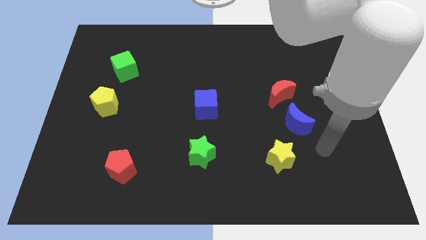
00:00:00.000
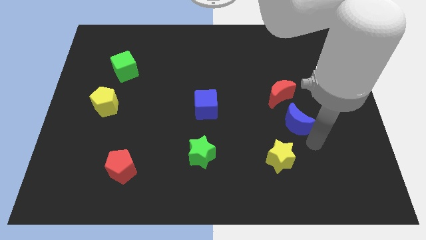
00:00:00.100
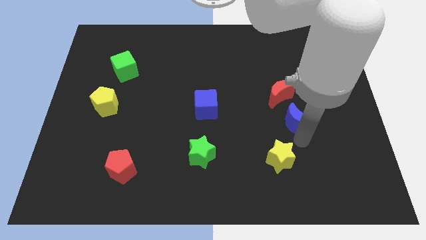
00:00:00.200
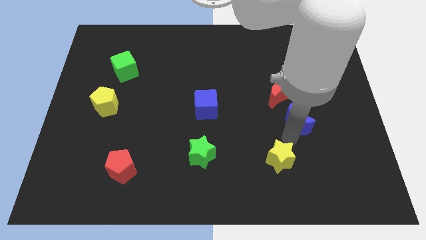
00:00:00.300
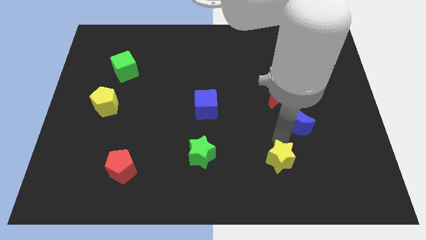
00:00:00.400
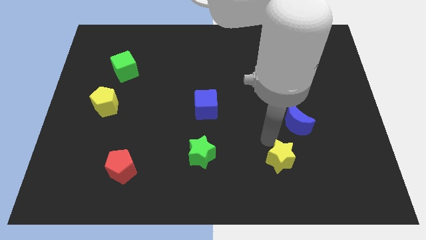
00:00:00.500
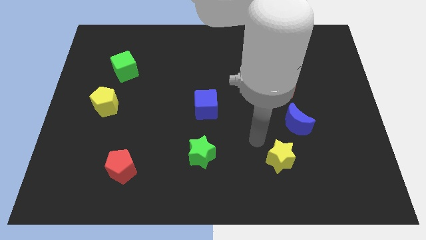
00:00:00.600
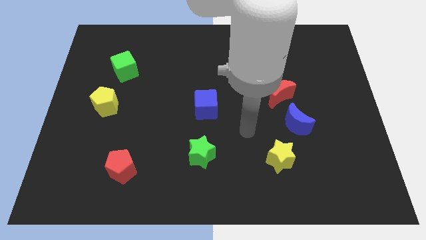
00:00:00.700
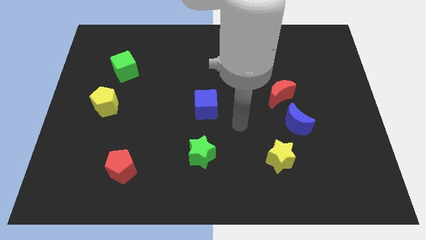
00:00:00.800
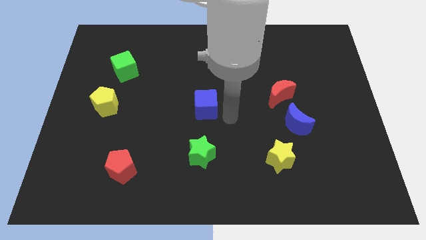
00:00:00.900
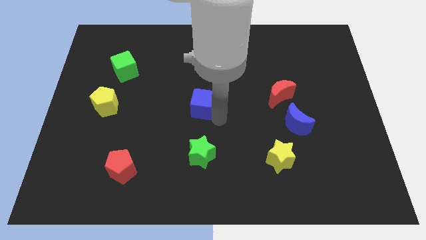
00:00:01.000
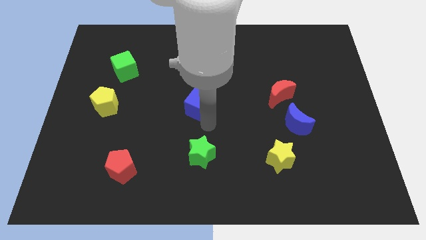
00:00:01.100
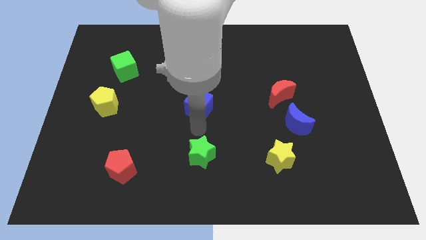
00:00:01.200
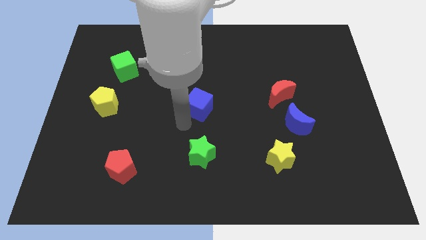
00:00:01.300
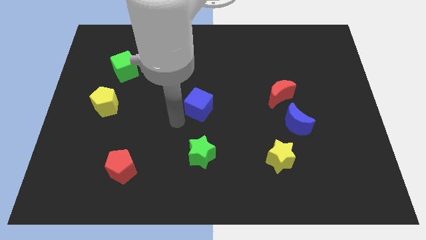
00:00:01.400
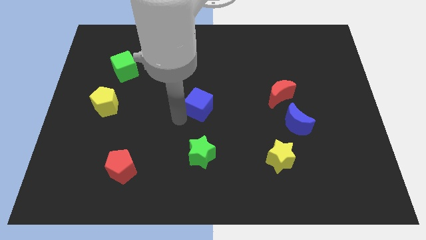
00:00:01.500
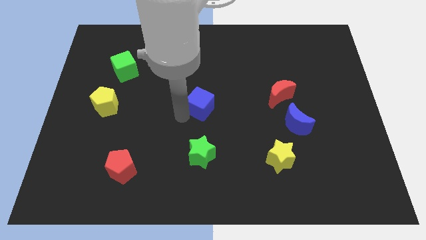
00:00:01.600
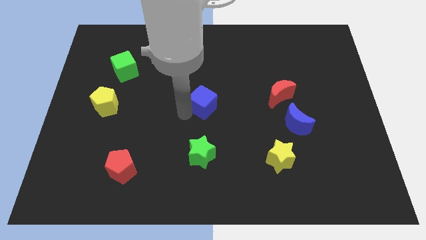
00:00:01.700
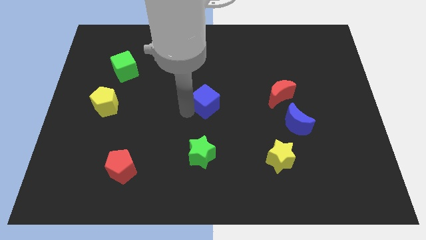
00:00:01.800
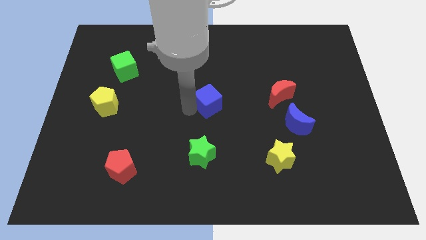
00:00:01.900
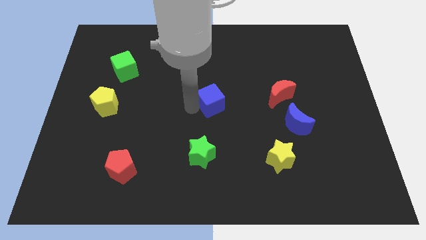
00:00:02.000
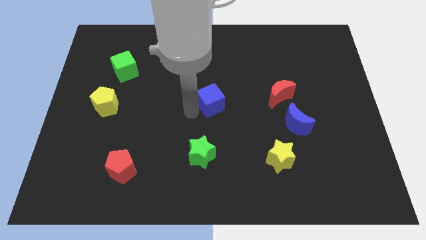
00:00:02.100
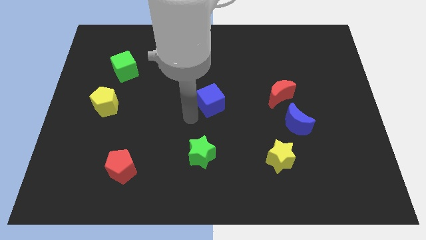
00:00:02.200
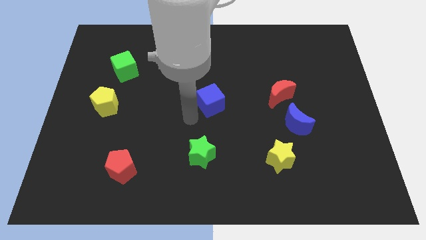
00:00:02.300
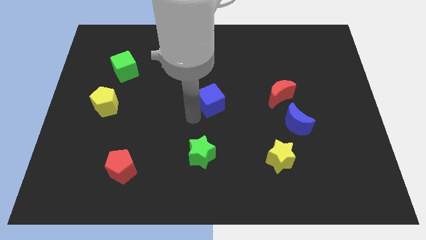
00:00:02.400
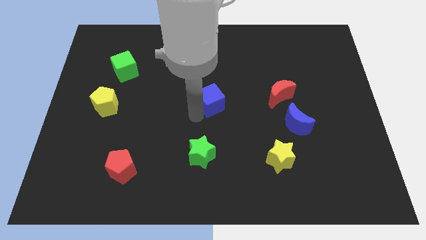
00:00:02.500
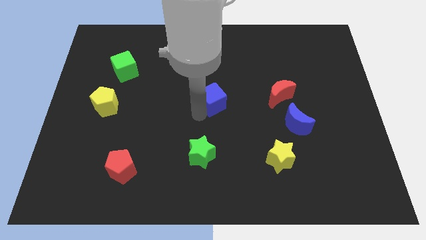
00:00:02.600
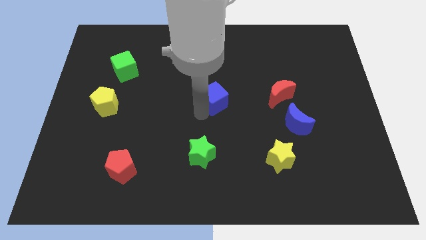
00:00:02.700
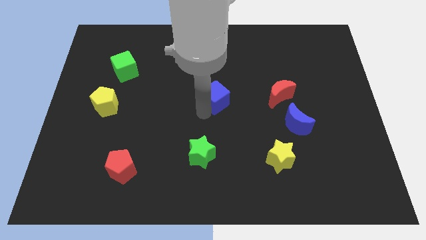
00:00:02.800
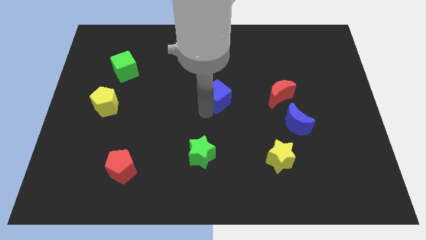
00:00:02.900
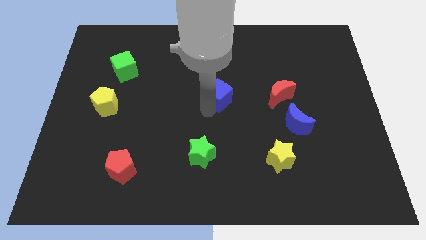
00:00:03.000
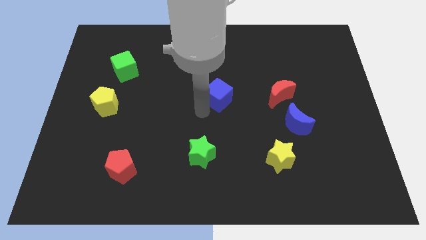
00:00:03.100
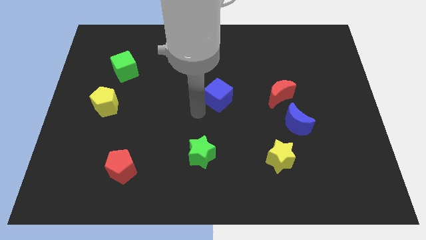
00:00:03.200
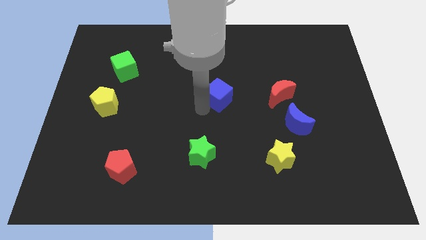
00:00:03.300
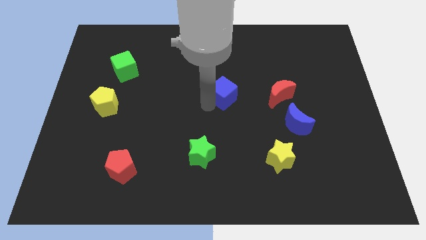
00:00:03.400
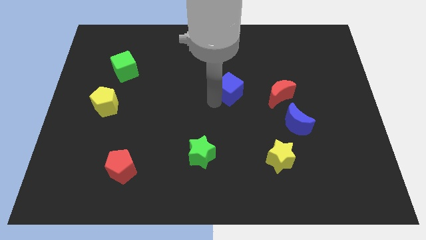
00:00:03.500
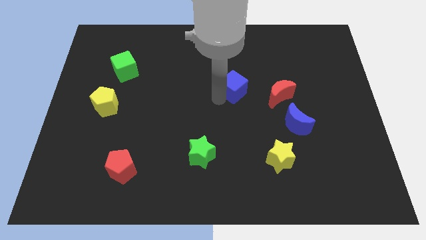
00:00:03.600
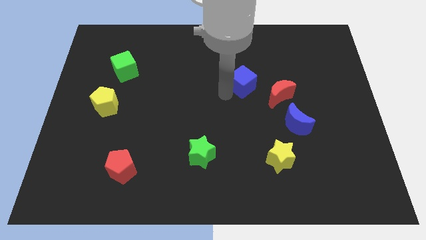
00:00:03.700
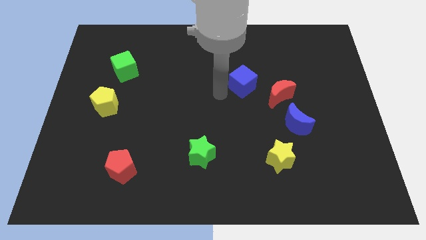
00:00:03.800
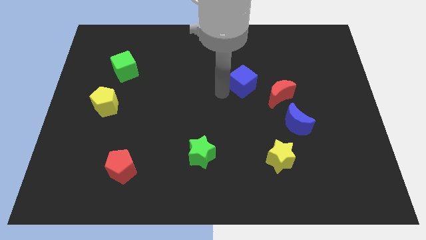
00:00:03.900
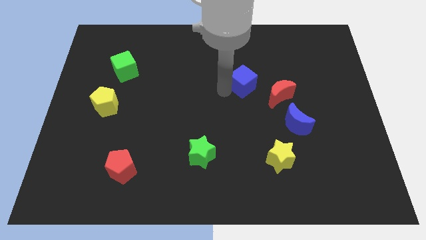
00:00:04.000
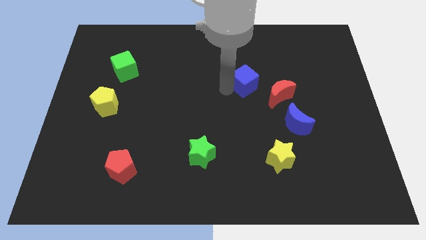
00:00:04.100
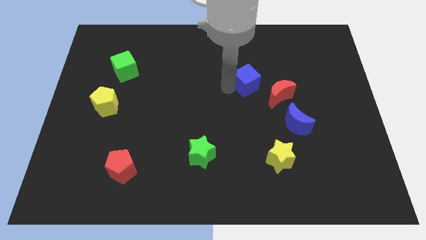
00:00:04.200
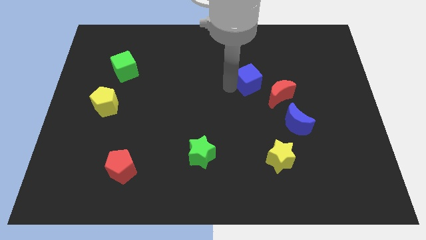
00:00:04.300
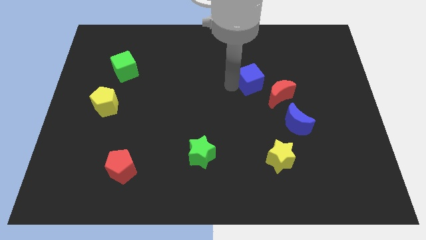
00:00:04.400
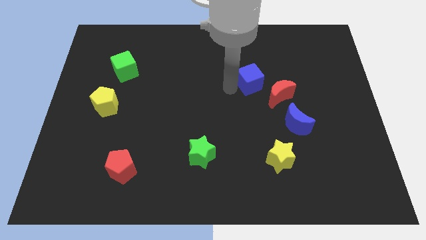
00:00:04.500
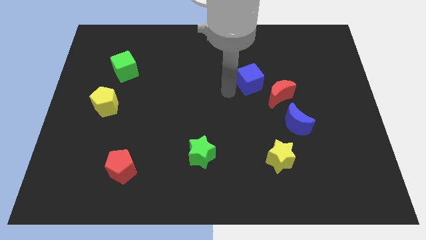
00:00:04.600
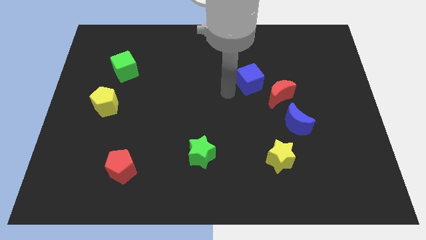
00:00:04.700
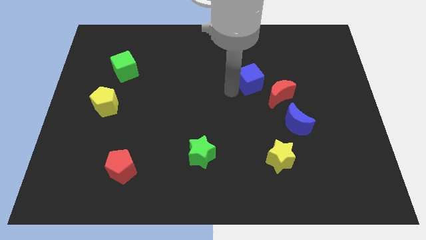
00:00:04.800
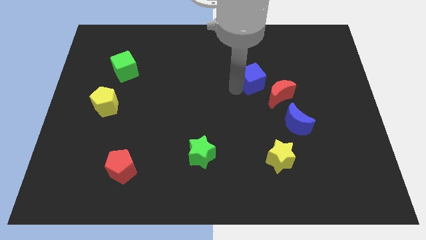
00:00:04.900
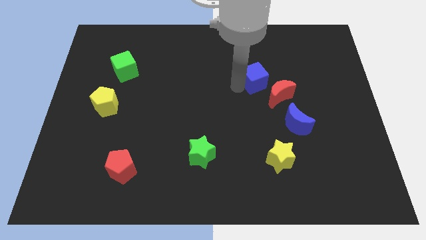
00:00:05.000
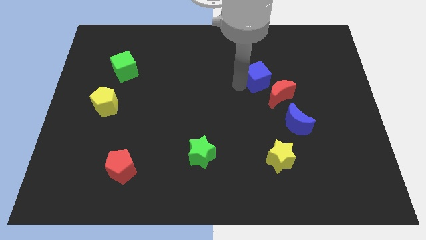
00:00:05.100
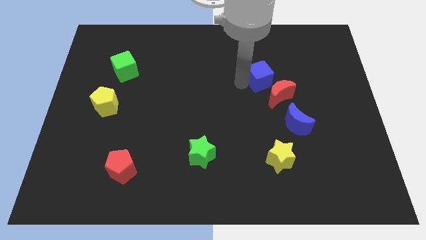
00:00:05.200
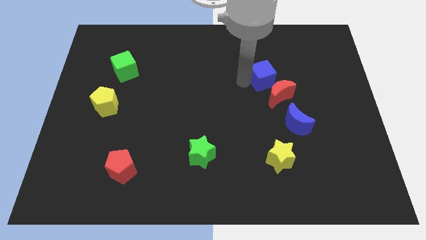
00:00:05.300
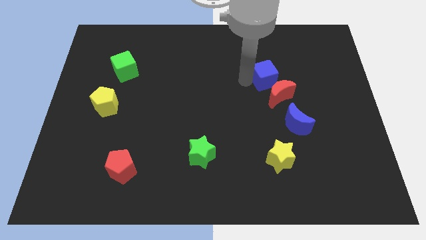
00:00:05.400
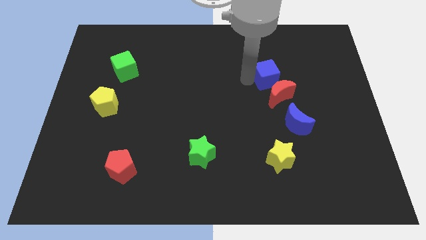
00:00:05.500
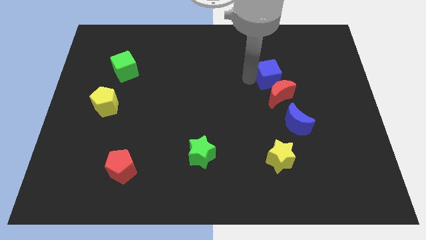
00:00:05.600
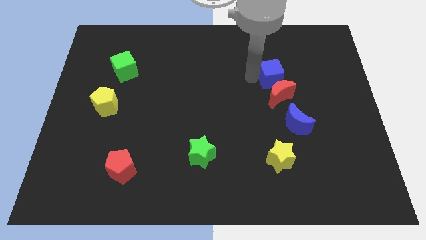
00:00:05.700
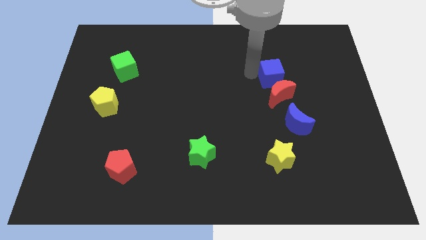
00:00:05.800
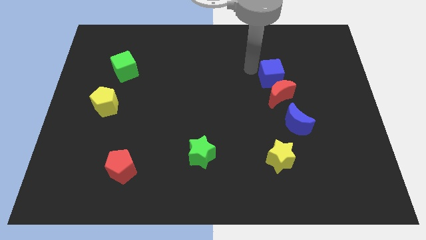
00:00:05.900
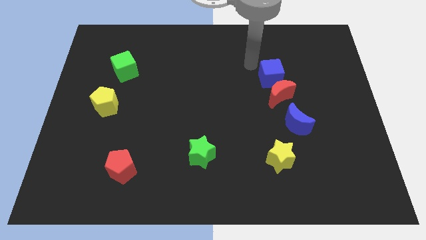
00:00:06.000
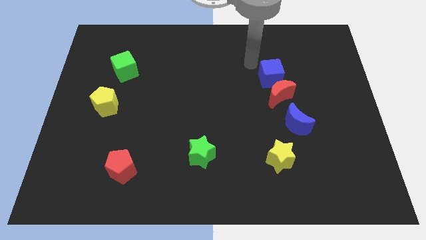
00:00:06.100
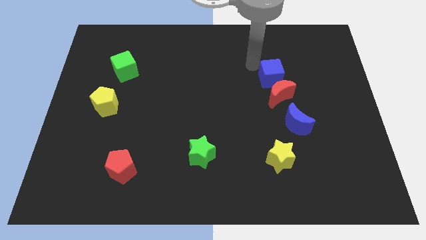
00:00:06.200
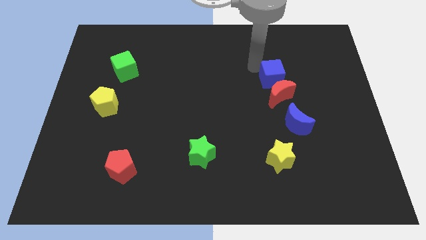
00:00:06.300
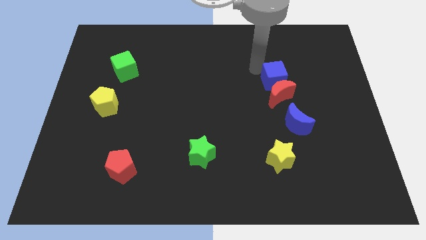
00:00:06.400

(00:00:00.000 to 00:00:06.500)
move the blue cube above the blue moon

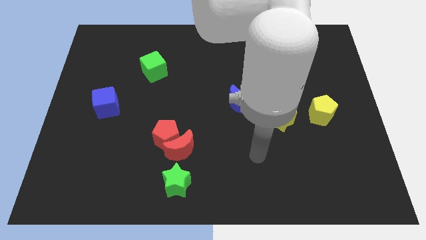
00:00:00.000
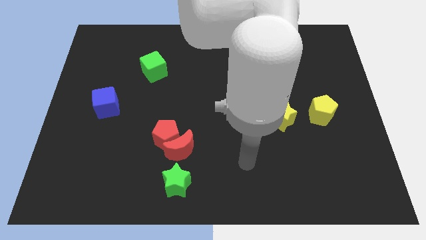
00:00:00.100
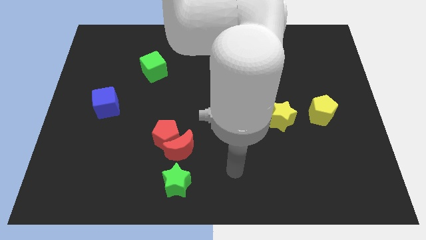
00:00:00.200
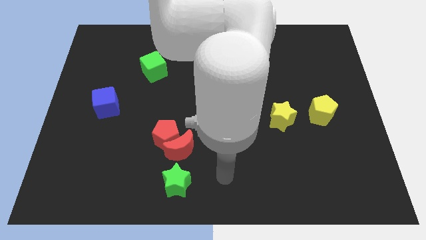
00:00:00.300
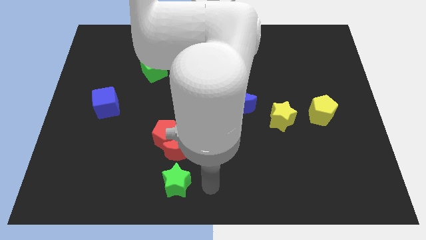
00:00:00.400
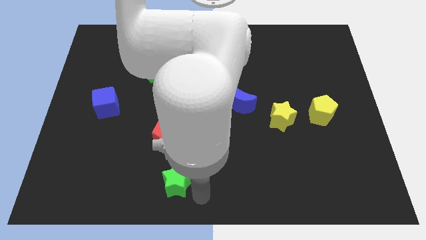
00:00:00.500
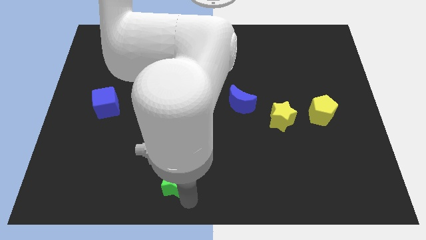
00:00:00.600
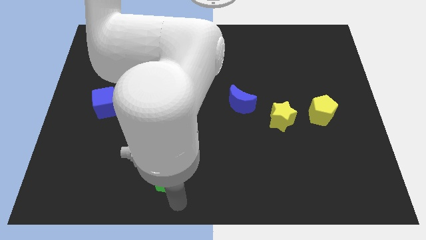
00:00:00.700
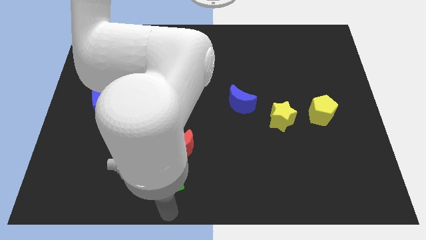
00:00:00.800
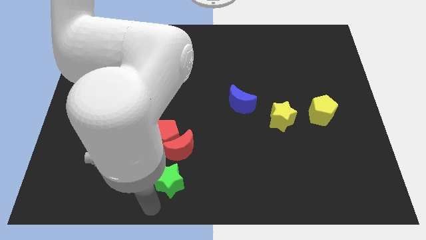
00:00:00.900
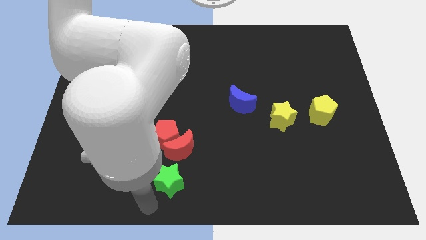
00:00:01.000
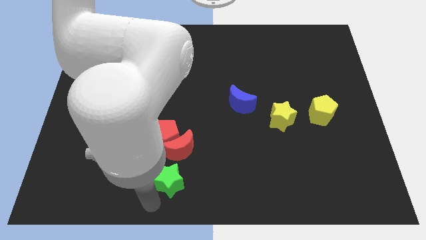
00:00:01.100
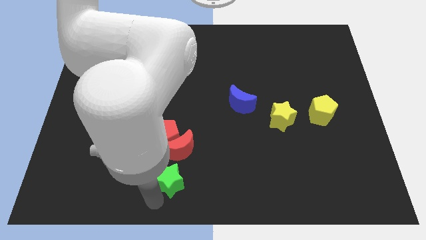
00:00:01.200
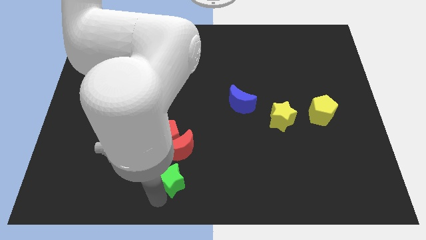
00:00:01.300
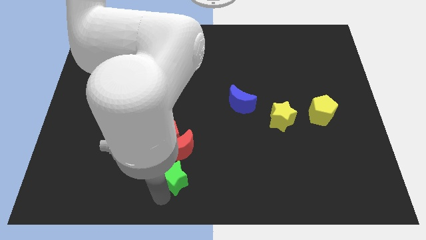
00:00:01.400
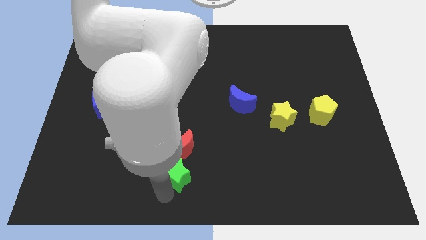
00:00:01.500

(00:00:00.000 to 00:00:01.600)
put the green star to the bottom right of the red pentagon

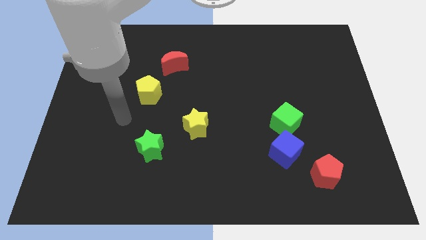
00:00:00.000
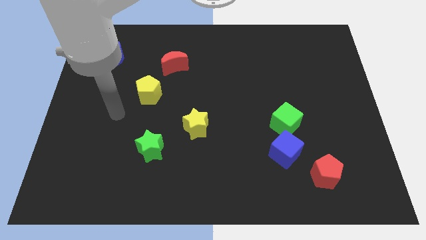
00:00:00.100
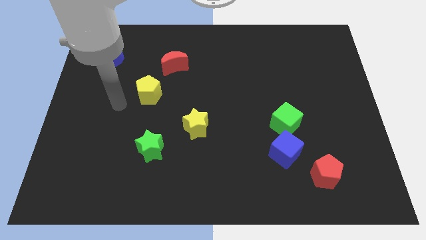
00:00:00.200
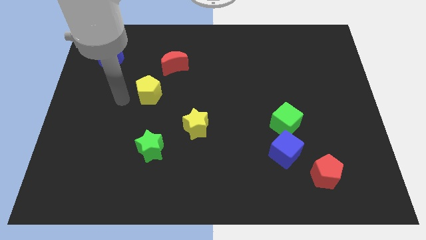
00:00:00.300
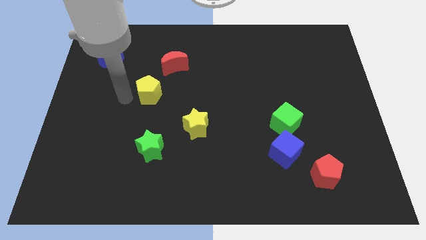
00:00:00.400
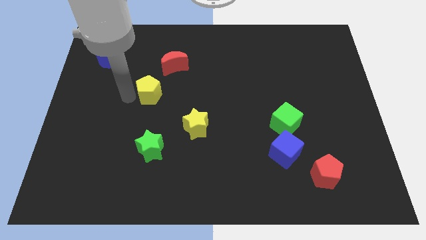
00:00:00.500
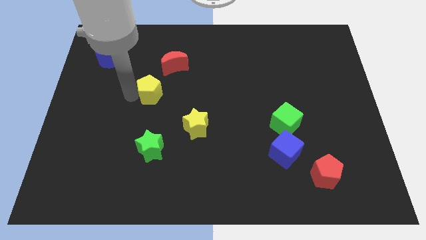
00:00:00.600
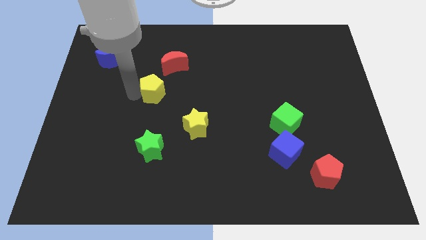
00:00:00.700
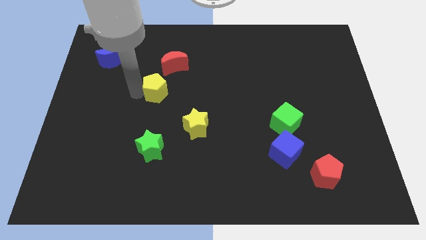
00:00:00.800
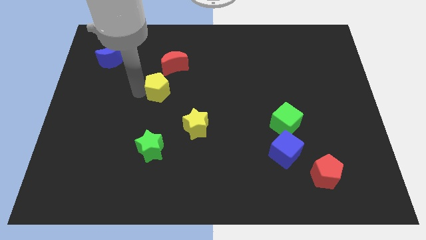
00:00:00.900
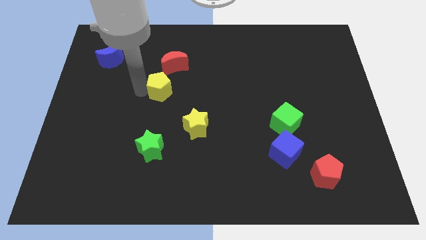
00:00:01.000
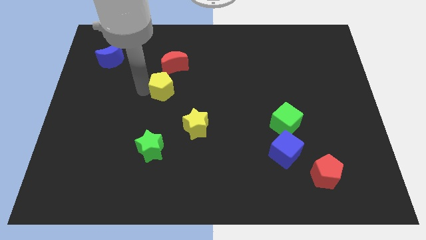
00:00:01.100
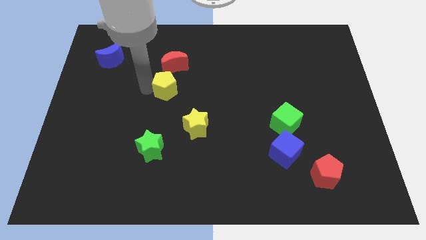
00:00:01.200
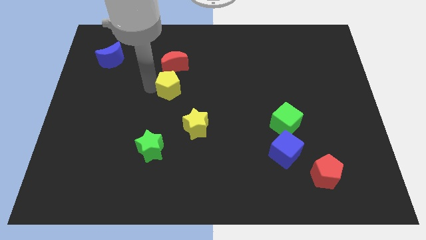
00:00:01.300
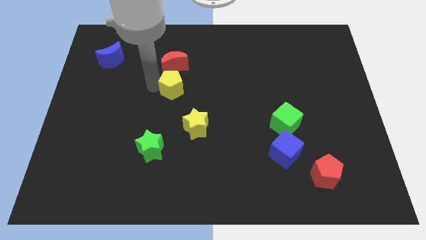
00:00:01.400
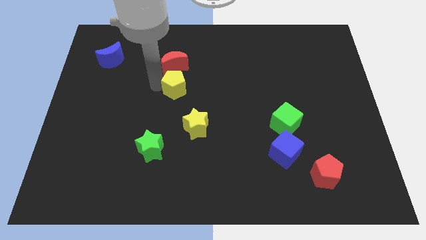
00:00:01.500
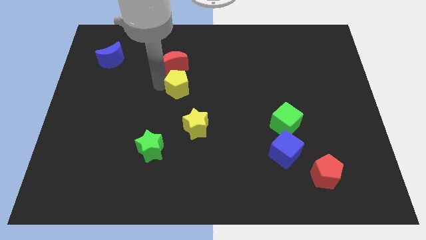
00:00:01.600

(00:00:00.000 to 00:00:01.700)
push the yellow pentagon to the top of the yellow star
